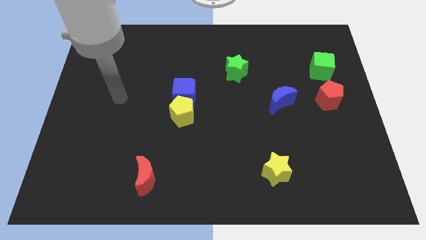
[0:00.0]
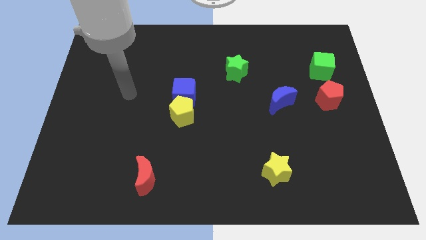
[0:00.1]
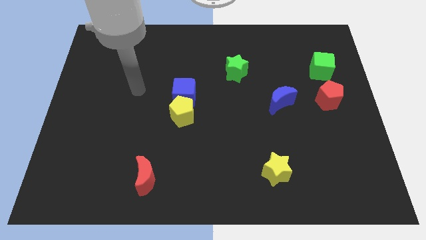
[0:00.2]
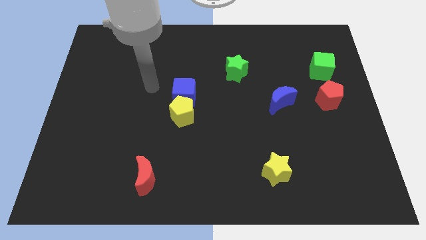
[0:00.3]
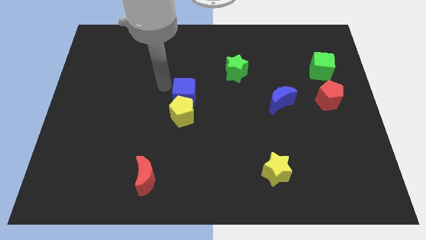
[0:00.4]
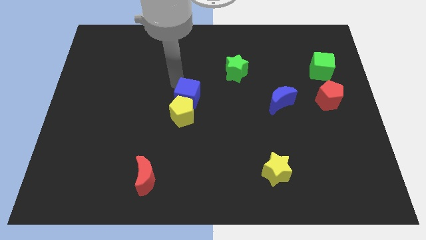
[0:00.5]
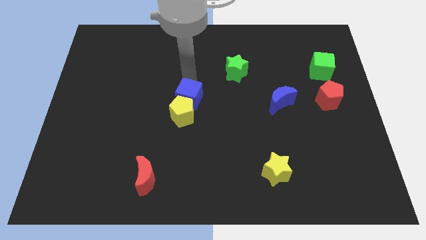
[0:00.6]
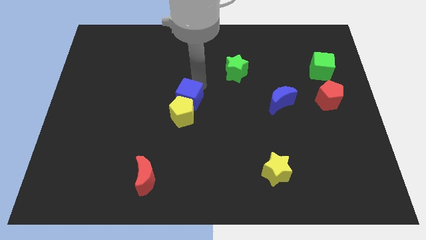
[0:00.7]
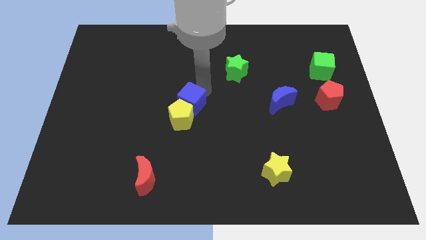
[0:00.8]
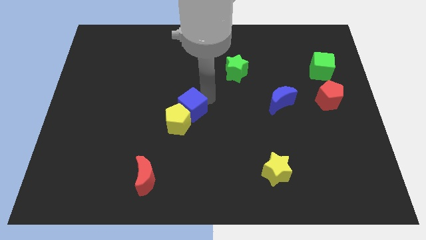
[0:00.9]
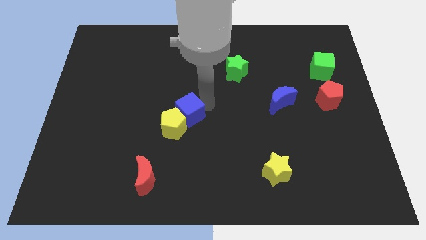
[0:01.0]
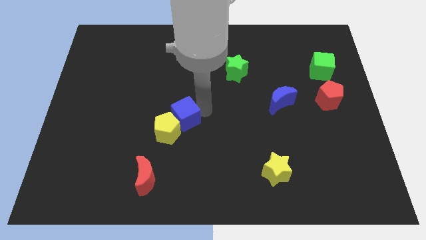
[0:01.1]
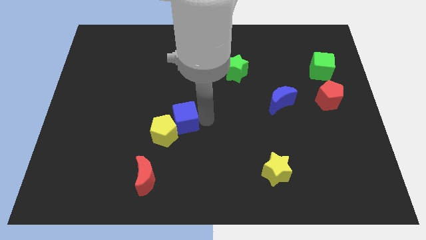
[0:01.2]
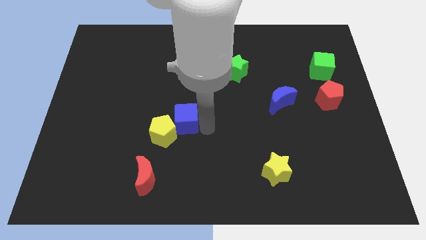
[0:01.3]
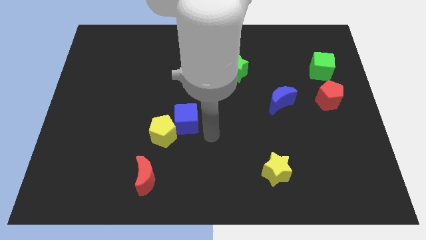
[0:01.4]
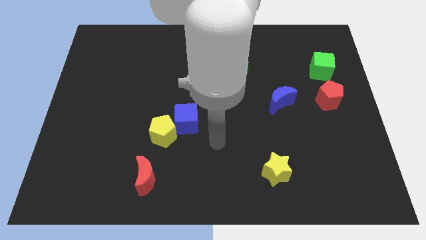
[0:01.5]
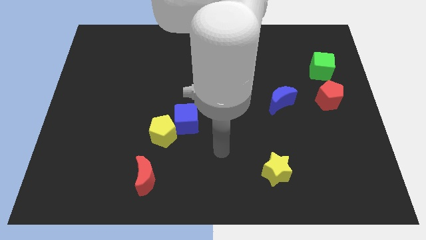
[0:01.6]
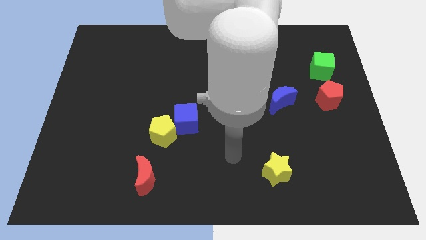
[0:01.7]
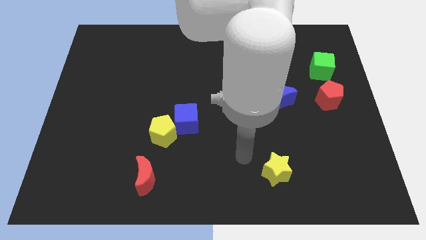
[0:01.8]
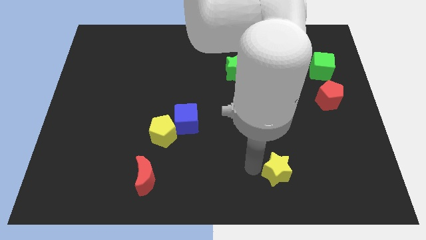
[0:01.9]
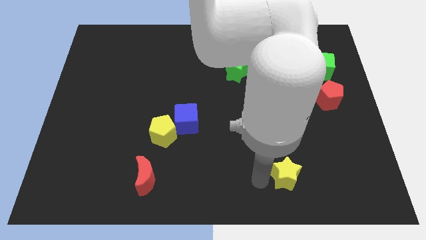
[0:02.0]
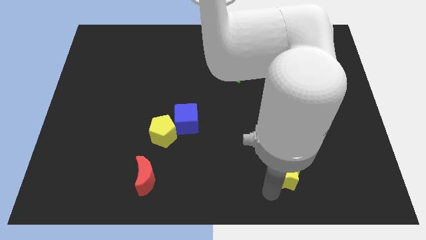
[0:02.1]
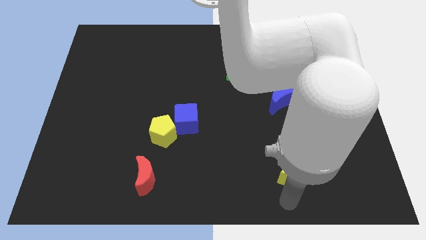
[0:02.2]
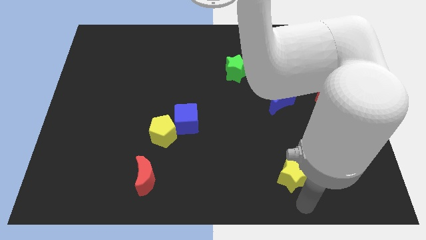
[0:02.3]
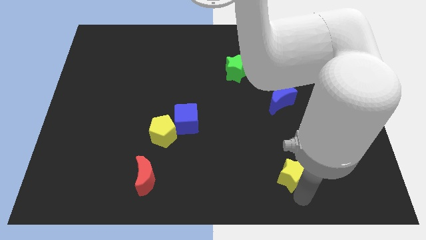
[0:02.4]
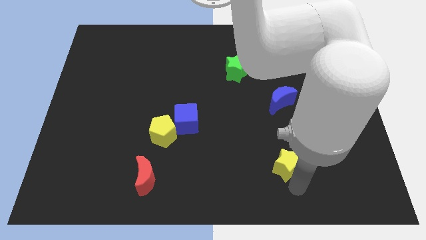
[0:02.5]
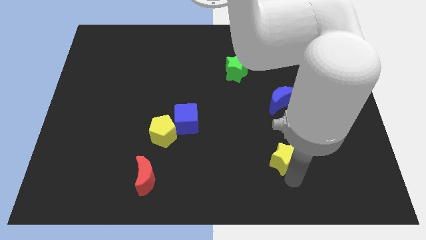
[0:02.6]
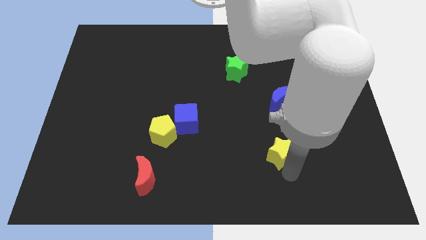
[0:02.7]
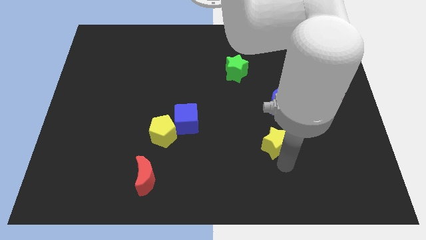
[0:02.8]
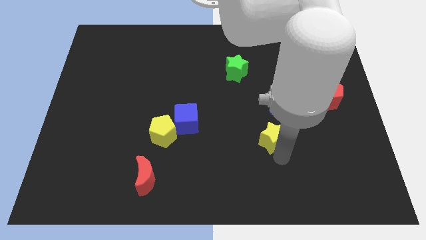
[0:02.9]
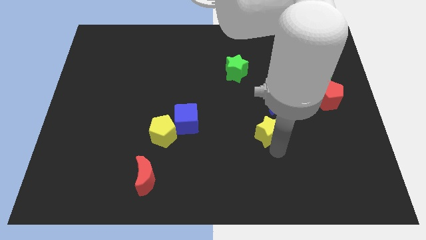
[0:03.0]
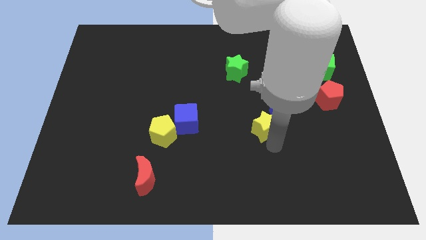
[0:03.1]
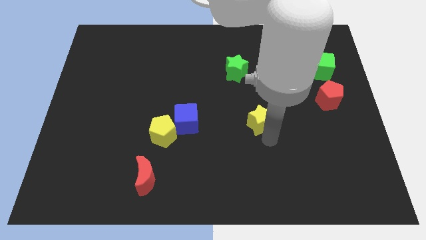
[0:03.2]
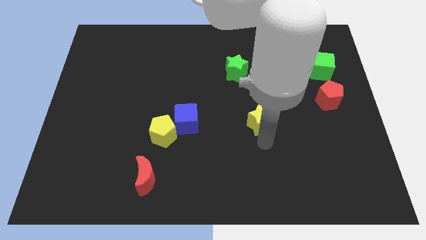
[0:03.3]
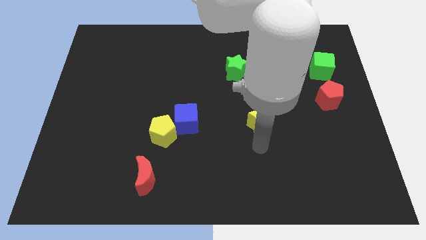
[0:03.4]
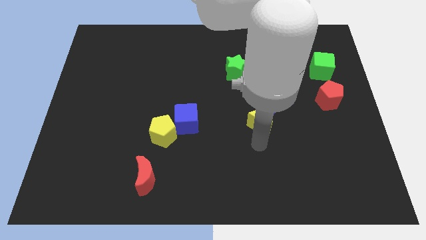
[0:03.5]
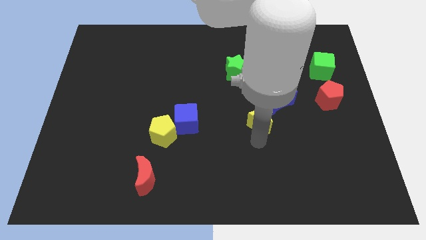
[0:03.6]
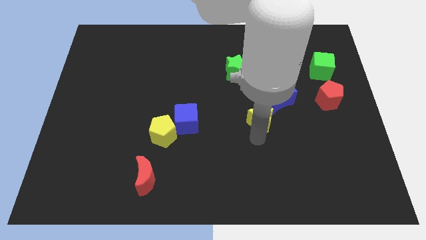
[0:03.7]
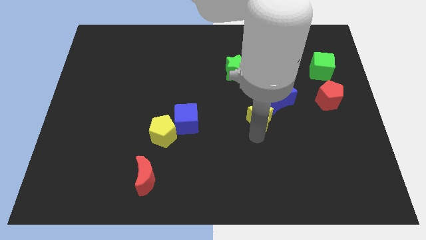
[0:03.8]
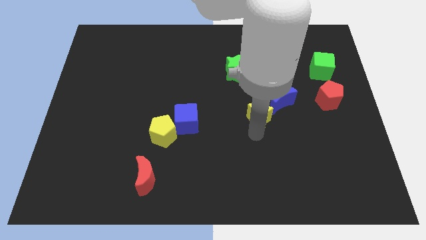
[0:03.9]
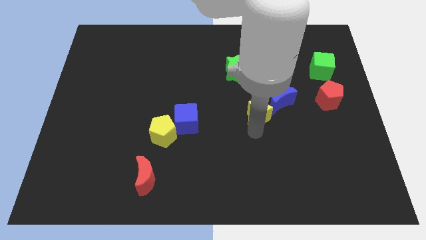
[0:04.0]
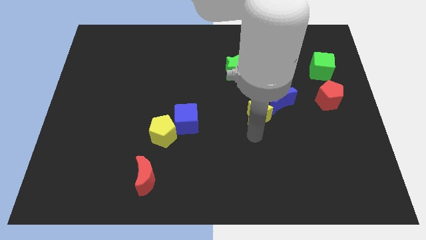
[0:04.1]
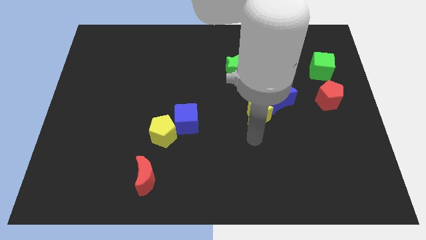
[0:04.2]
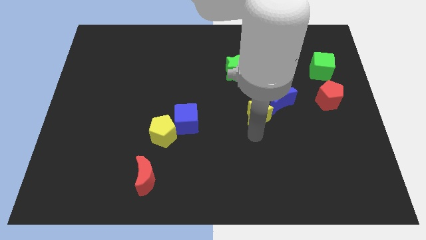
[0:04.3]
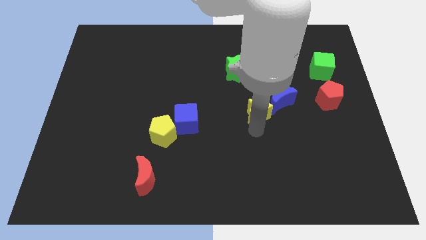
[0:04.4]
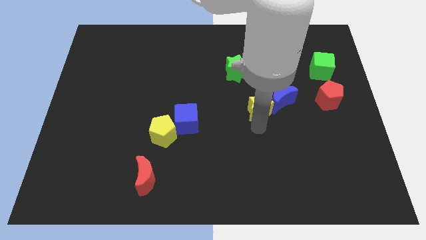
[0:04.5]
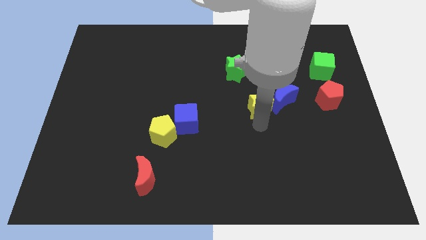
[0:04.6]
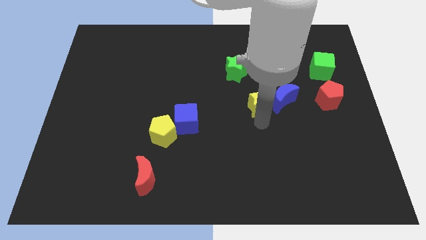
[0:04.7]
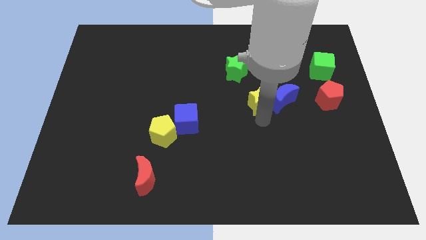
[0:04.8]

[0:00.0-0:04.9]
push the yellow star diagonally down and to the right of the green star
